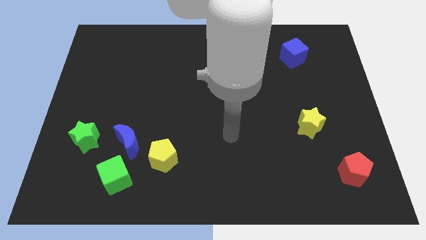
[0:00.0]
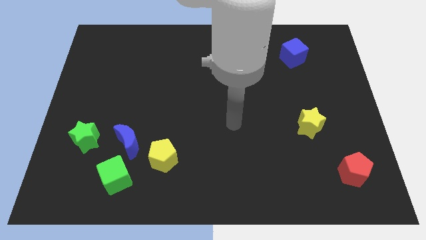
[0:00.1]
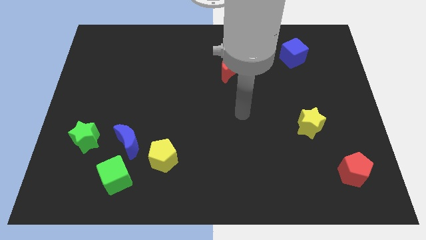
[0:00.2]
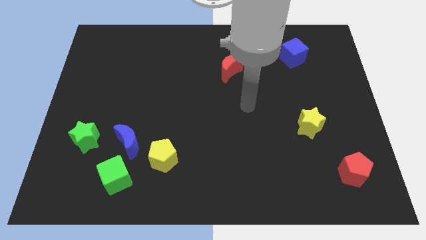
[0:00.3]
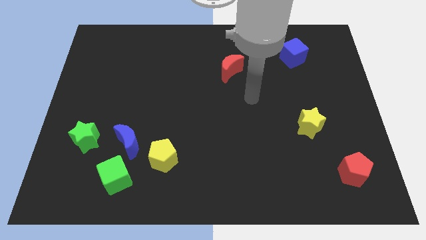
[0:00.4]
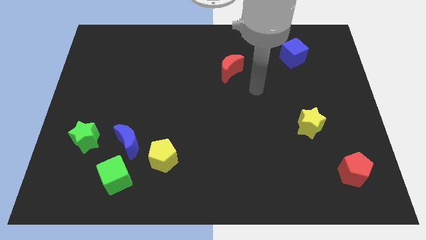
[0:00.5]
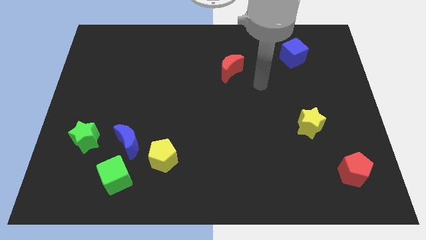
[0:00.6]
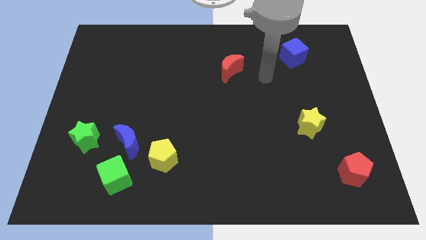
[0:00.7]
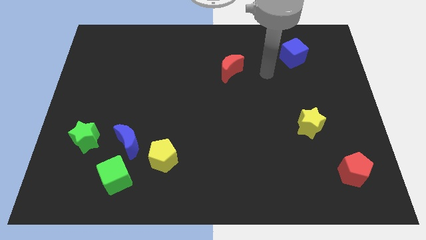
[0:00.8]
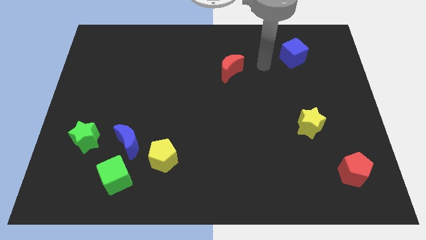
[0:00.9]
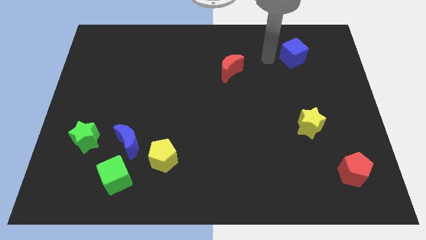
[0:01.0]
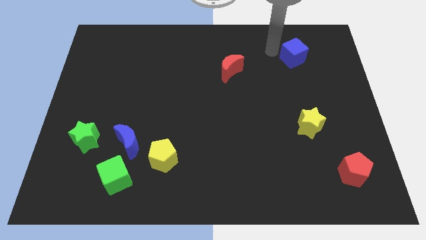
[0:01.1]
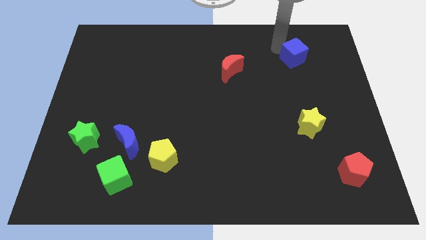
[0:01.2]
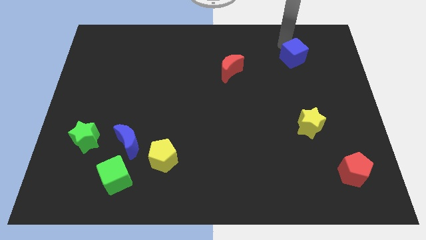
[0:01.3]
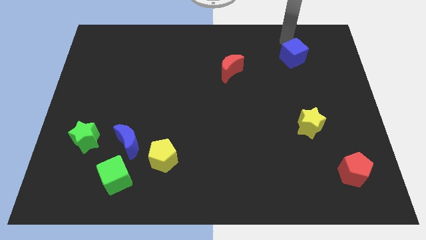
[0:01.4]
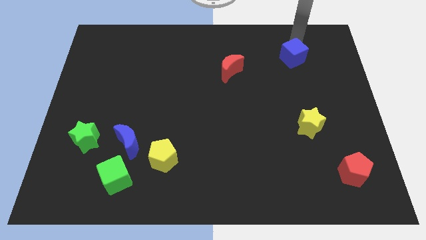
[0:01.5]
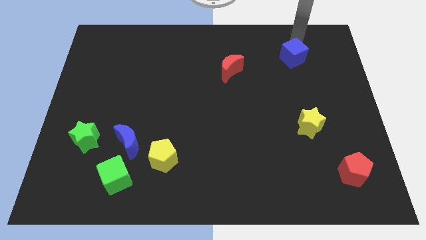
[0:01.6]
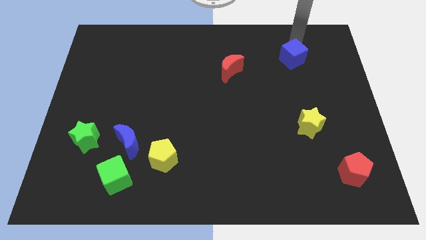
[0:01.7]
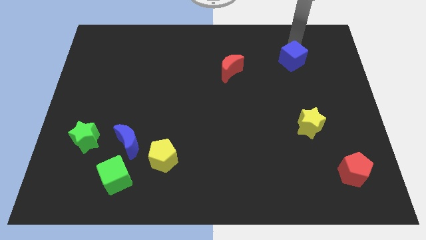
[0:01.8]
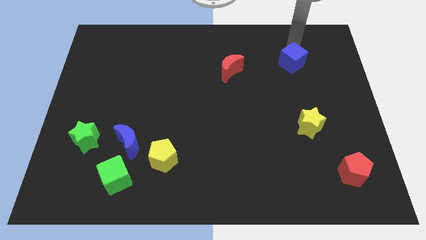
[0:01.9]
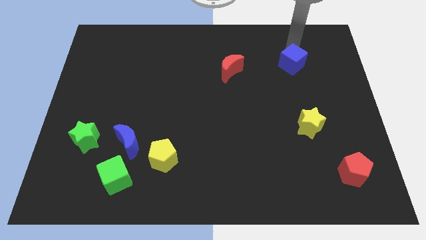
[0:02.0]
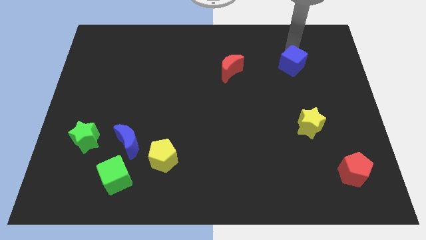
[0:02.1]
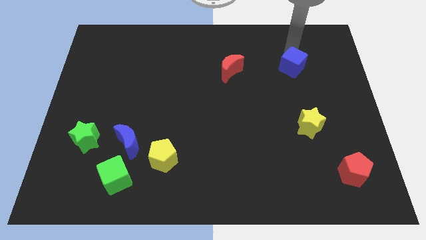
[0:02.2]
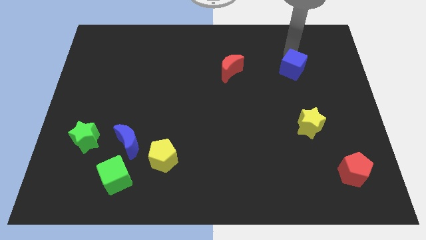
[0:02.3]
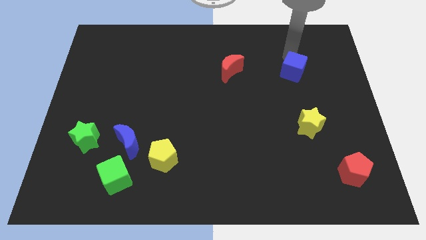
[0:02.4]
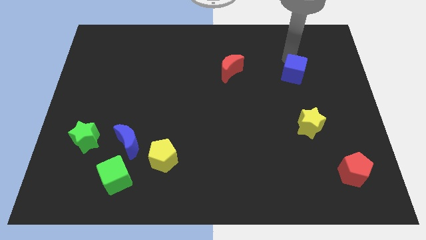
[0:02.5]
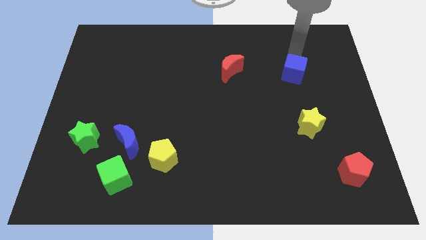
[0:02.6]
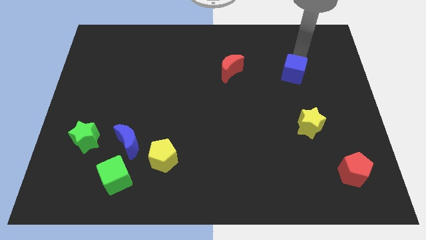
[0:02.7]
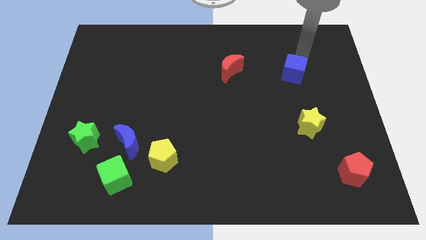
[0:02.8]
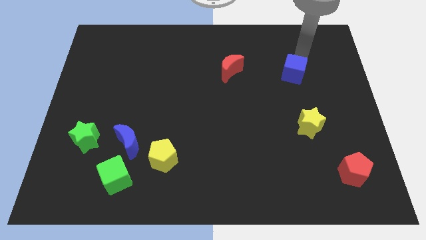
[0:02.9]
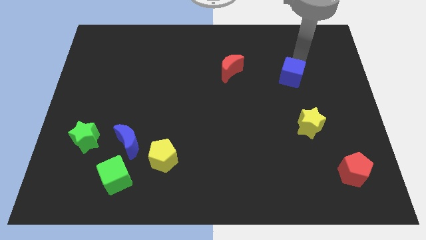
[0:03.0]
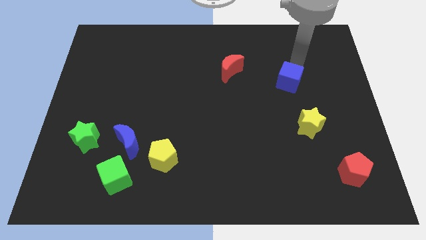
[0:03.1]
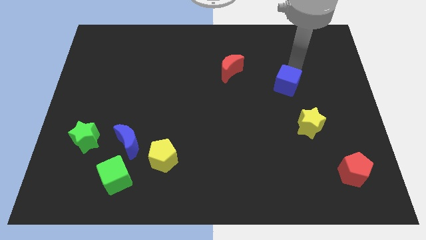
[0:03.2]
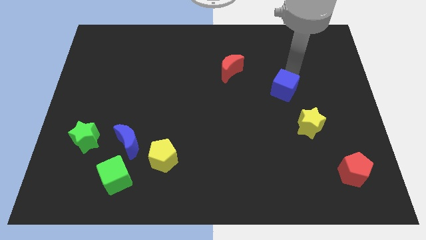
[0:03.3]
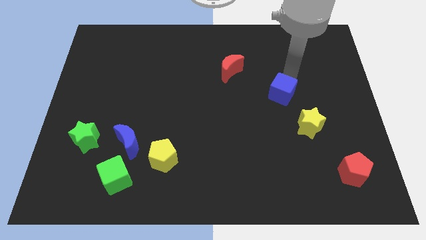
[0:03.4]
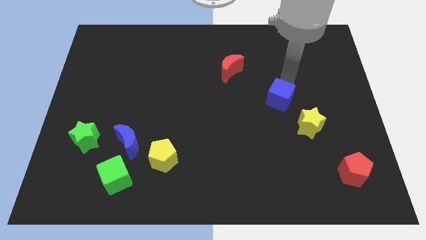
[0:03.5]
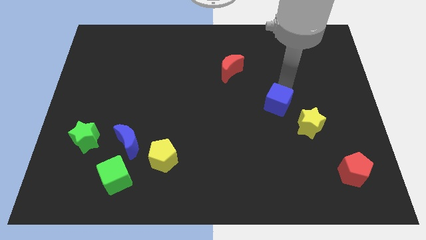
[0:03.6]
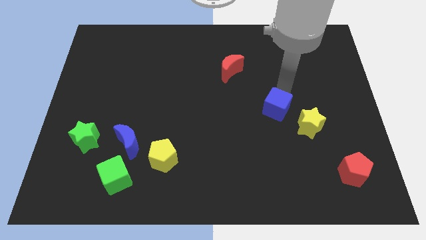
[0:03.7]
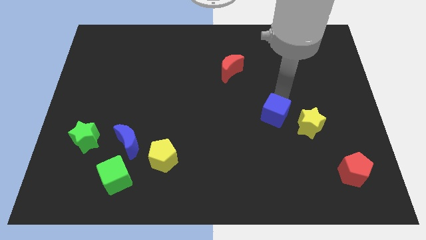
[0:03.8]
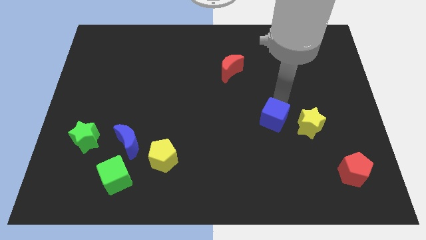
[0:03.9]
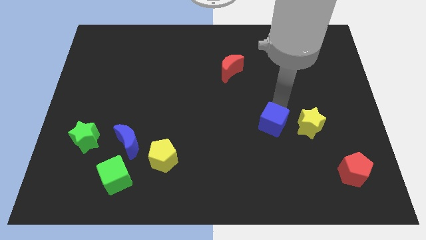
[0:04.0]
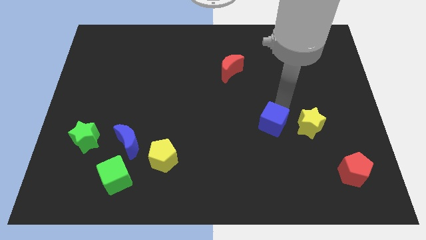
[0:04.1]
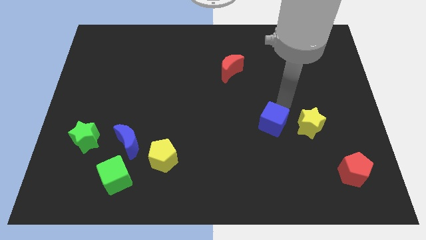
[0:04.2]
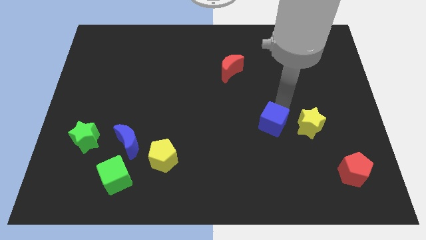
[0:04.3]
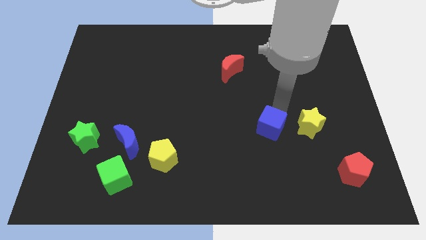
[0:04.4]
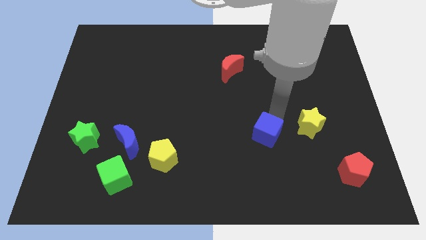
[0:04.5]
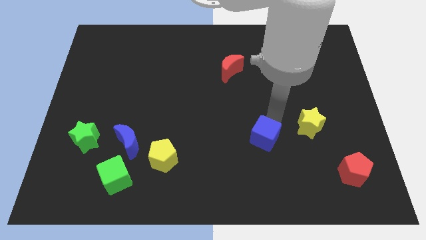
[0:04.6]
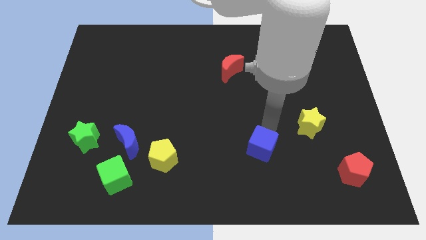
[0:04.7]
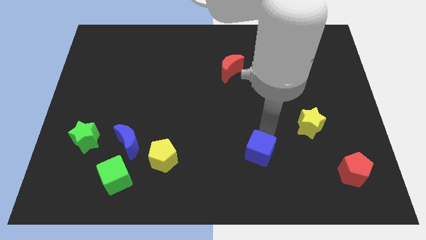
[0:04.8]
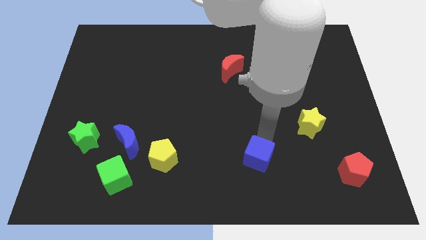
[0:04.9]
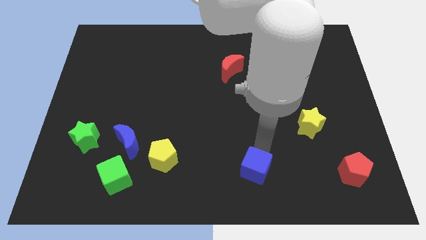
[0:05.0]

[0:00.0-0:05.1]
put the blue cube to the bottom

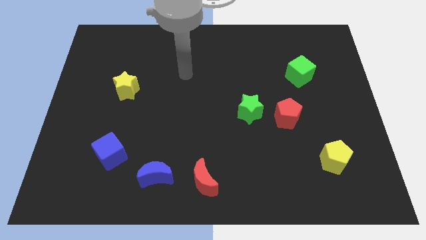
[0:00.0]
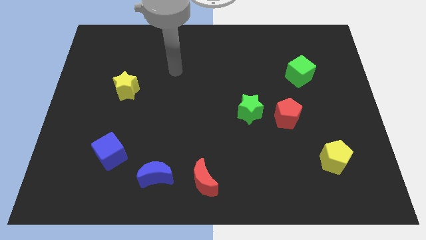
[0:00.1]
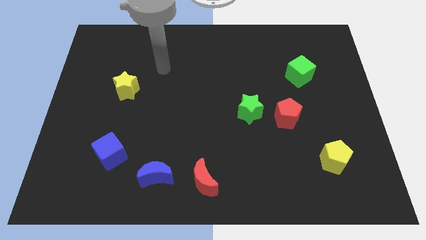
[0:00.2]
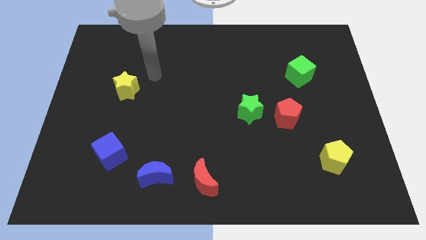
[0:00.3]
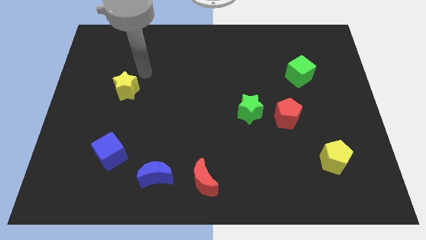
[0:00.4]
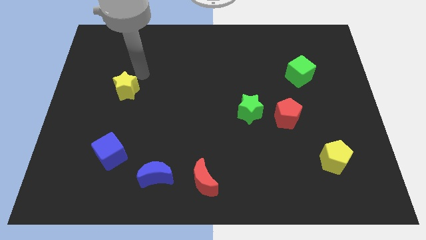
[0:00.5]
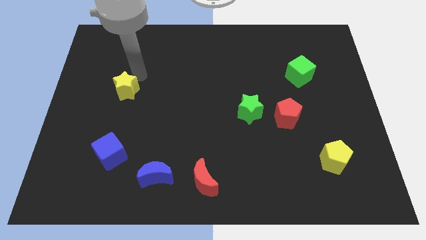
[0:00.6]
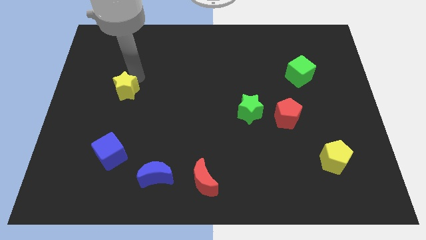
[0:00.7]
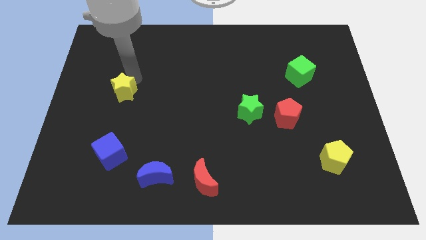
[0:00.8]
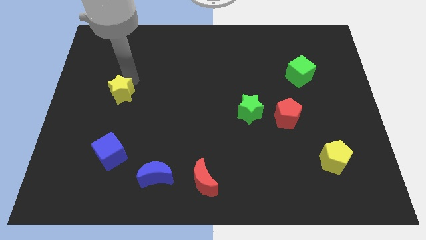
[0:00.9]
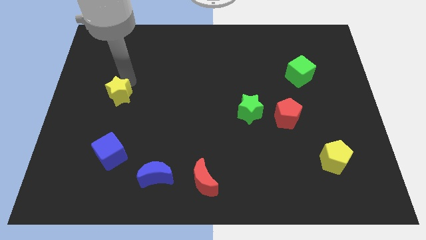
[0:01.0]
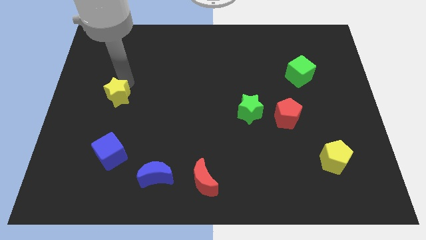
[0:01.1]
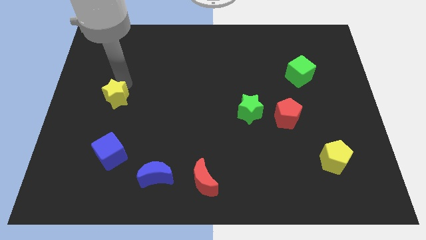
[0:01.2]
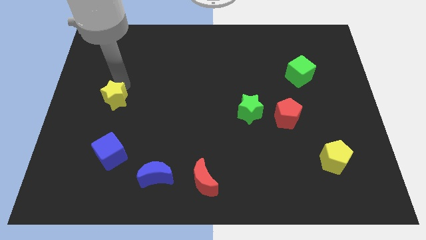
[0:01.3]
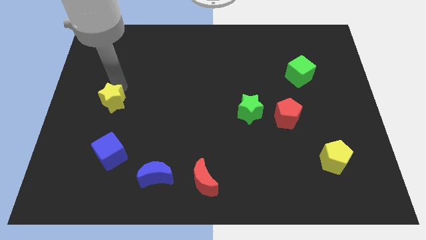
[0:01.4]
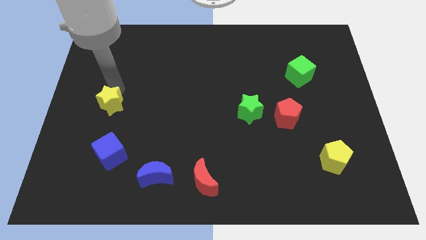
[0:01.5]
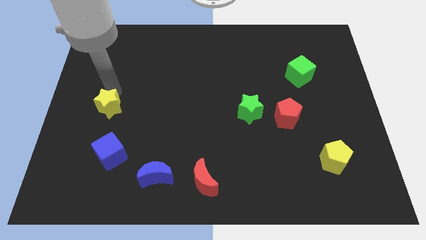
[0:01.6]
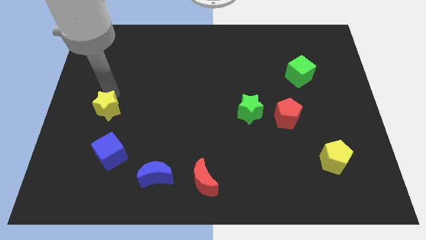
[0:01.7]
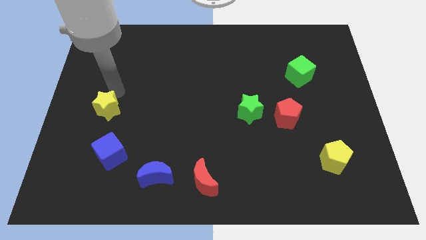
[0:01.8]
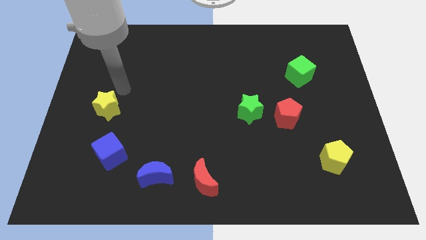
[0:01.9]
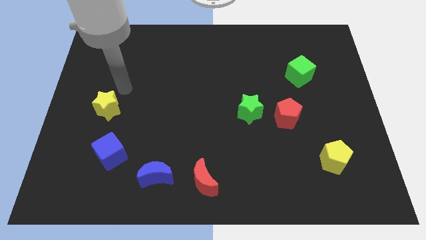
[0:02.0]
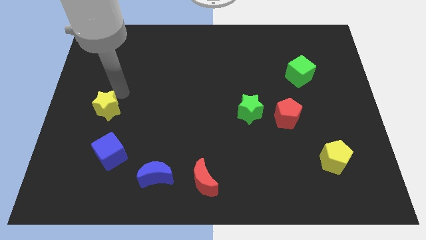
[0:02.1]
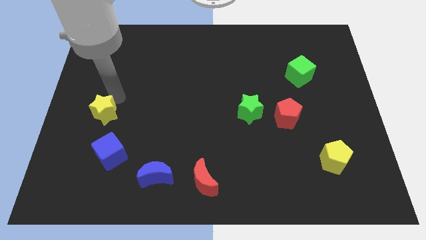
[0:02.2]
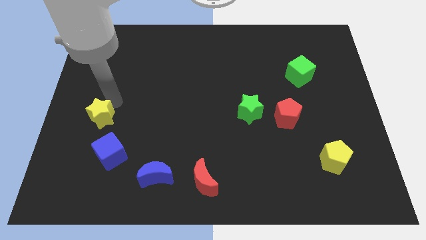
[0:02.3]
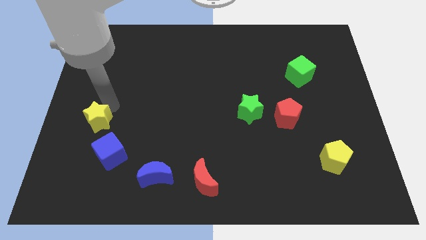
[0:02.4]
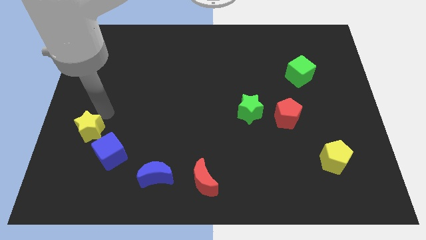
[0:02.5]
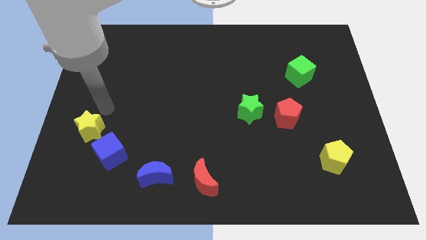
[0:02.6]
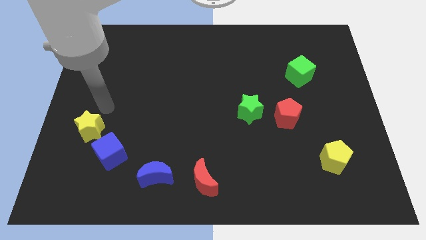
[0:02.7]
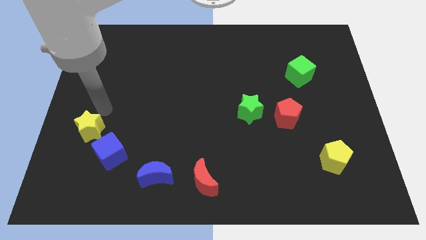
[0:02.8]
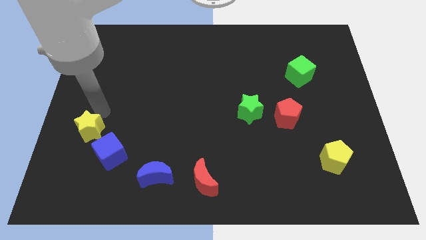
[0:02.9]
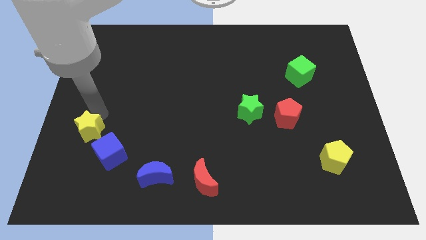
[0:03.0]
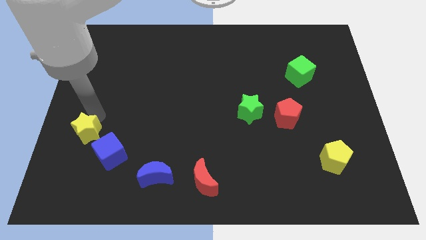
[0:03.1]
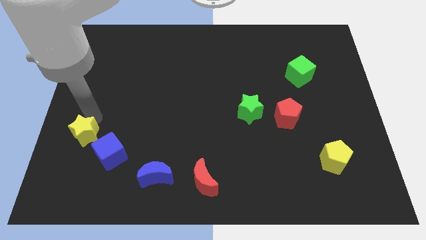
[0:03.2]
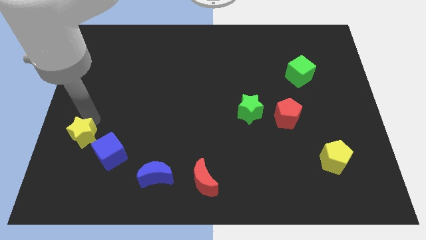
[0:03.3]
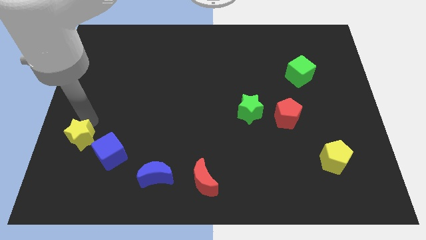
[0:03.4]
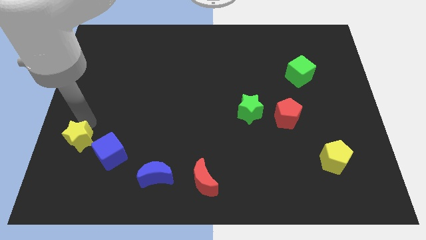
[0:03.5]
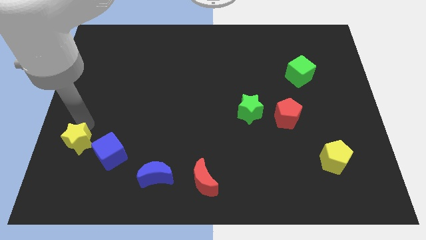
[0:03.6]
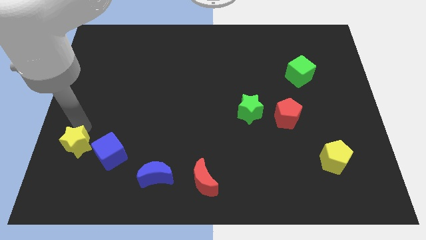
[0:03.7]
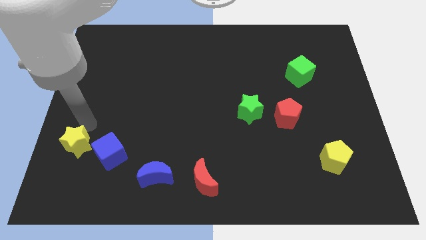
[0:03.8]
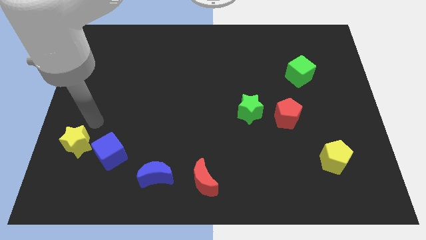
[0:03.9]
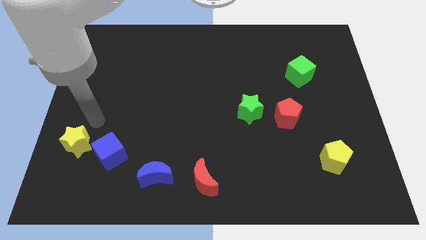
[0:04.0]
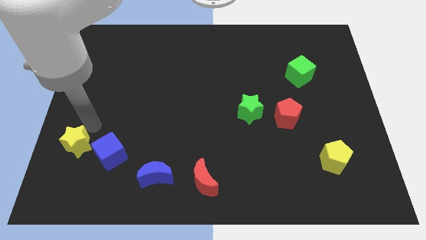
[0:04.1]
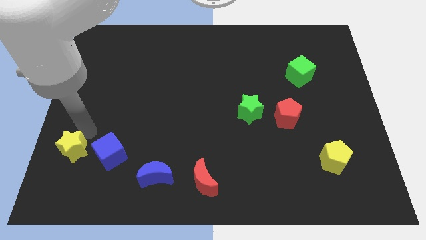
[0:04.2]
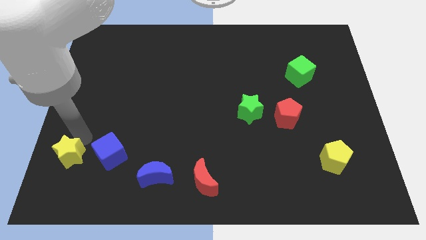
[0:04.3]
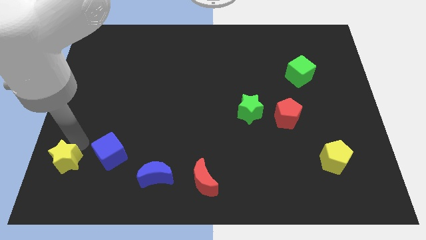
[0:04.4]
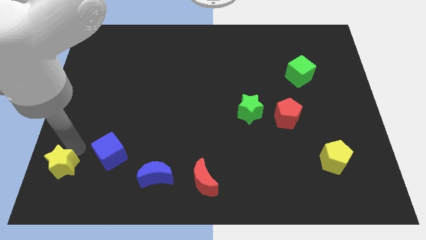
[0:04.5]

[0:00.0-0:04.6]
push the yellow star to the bottom left corner
